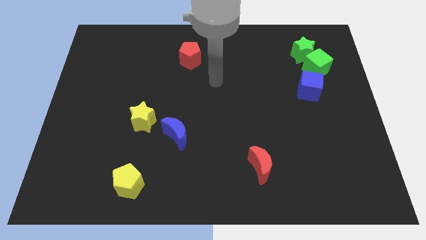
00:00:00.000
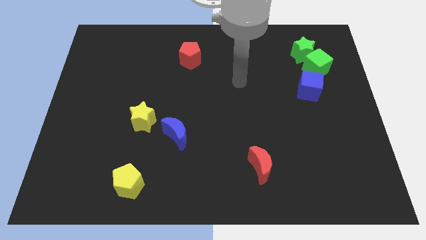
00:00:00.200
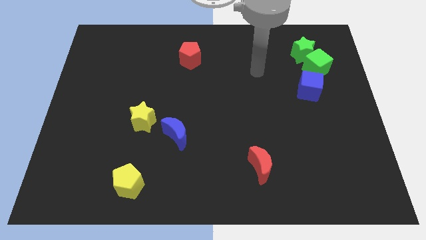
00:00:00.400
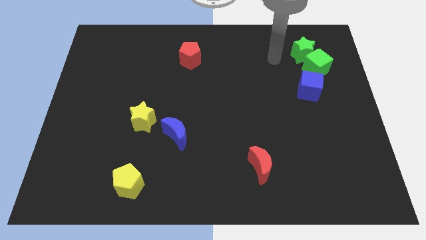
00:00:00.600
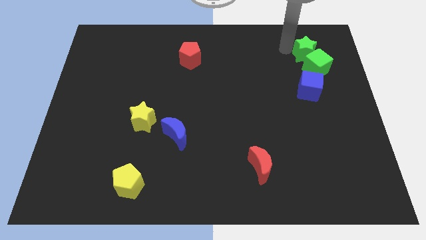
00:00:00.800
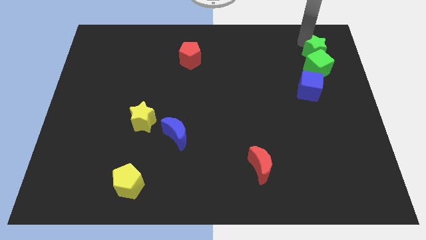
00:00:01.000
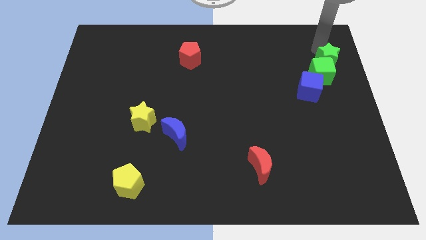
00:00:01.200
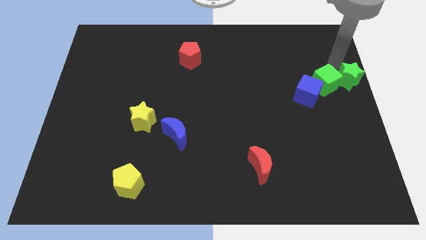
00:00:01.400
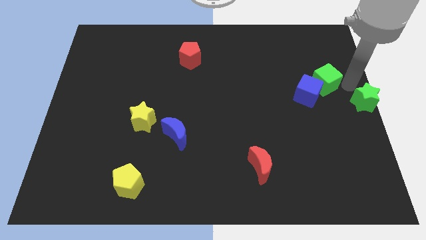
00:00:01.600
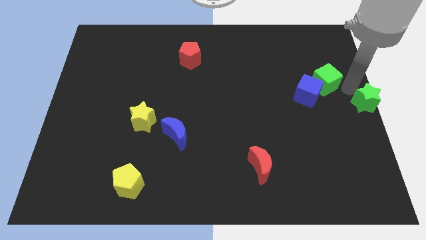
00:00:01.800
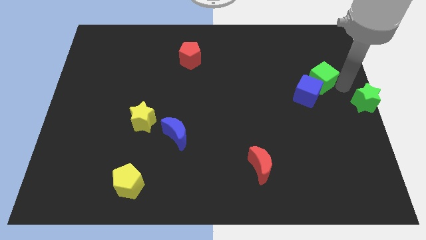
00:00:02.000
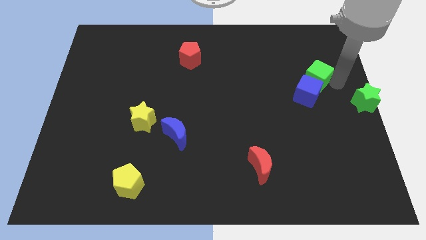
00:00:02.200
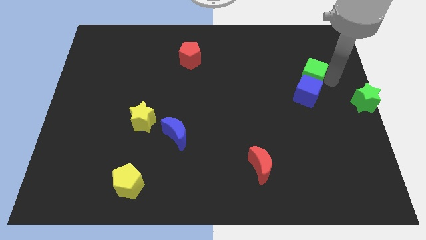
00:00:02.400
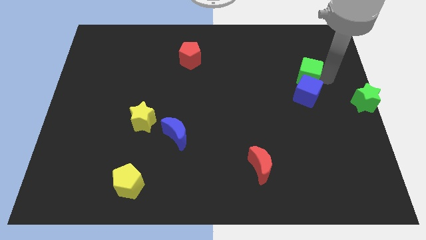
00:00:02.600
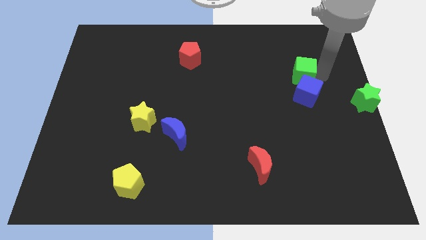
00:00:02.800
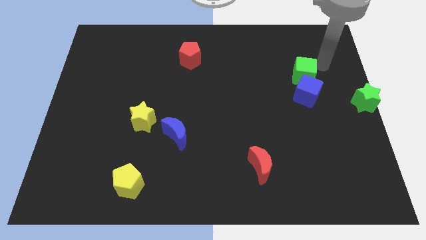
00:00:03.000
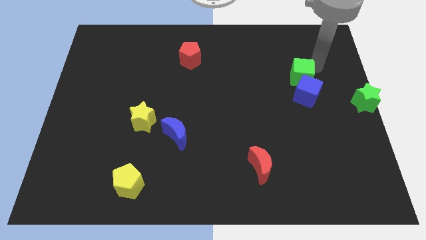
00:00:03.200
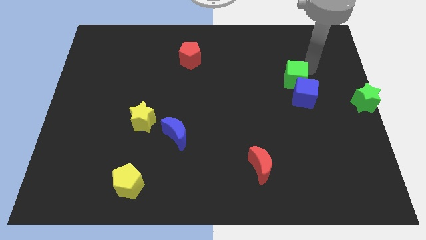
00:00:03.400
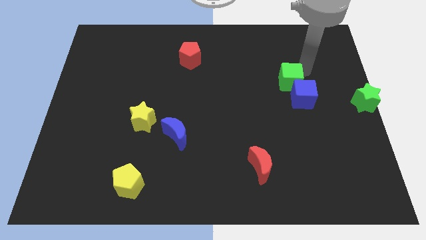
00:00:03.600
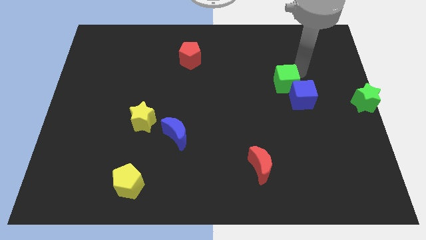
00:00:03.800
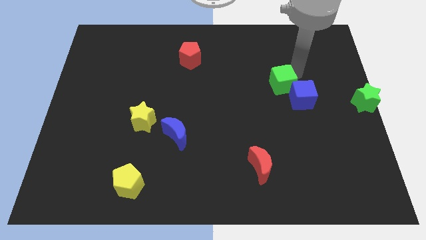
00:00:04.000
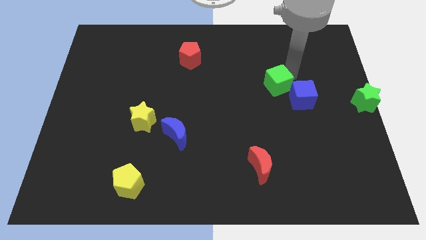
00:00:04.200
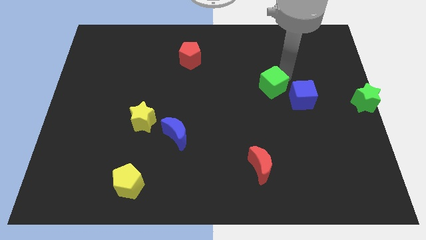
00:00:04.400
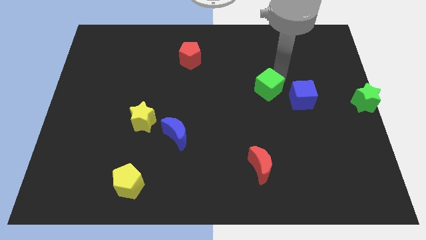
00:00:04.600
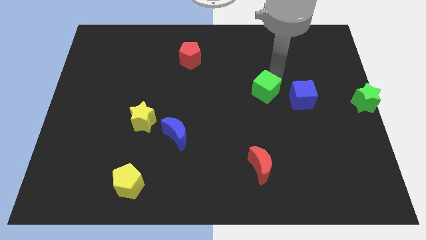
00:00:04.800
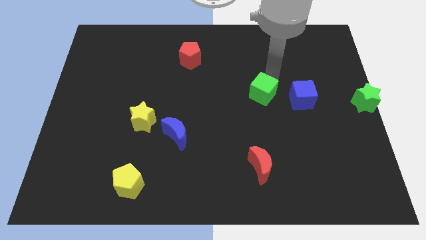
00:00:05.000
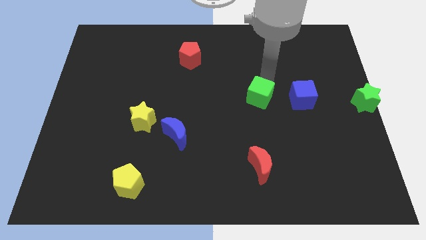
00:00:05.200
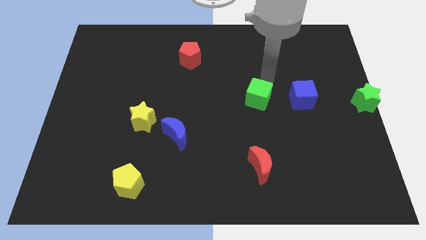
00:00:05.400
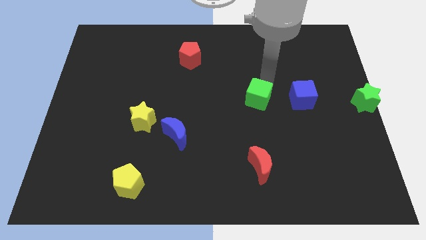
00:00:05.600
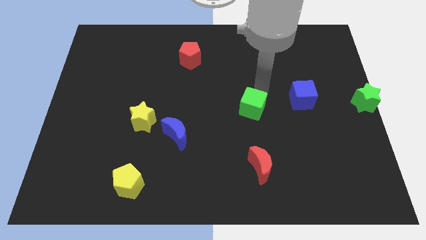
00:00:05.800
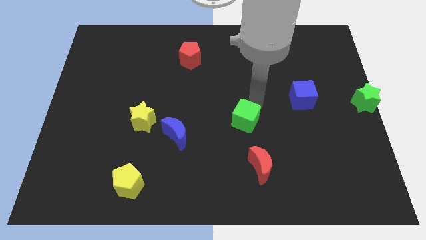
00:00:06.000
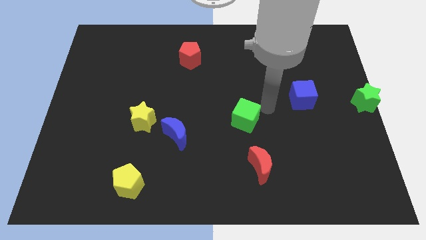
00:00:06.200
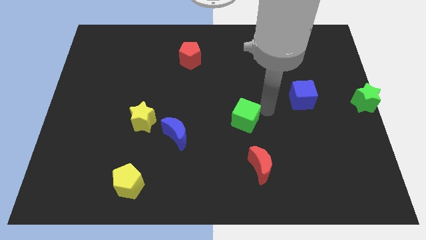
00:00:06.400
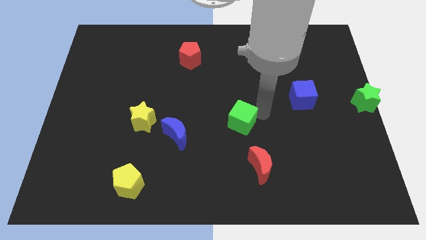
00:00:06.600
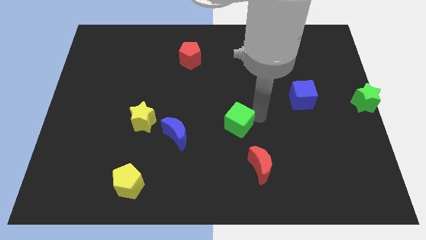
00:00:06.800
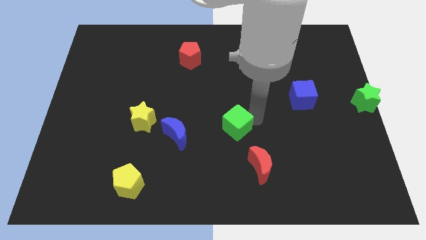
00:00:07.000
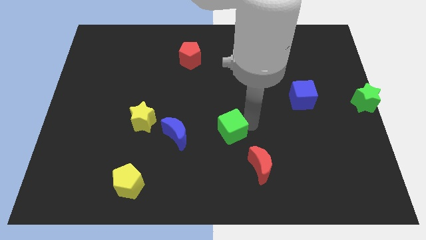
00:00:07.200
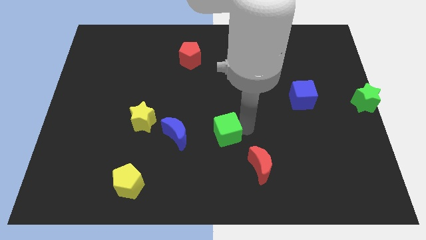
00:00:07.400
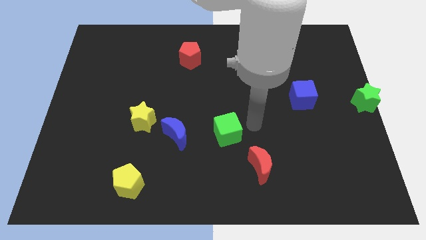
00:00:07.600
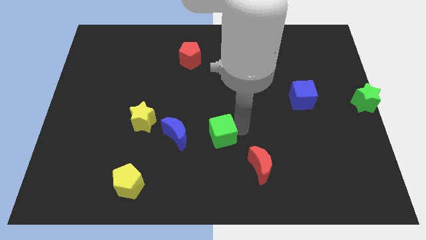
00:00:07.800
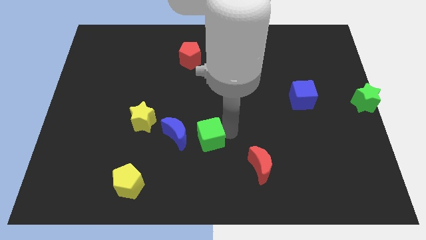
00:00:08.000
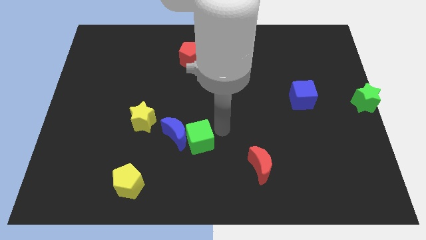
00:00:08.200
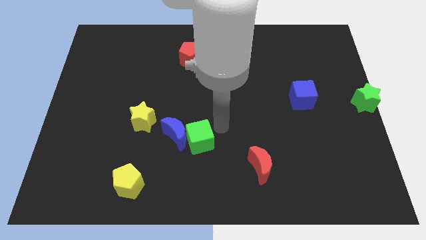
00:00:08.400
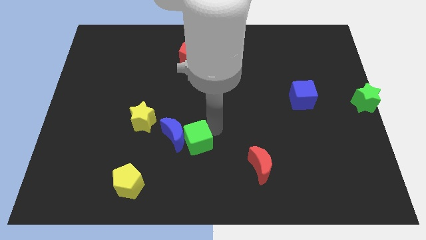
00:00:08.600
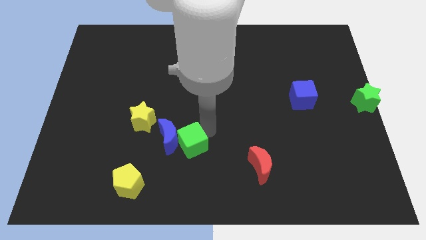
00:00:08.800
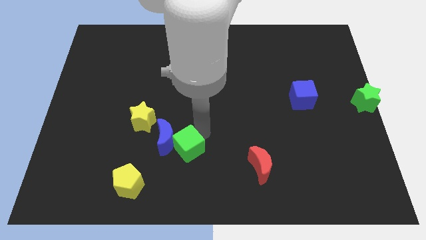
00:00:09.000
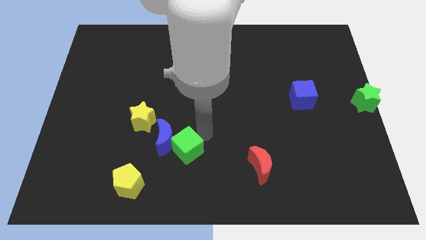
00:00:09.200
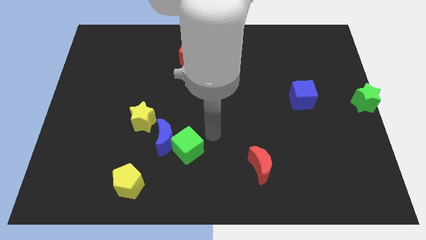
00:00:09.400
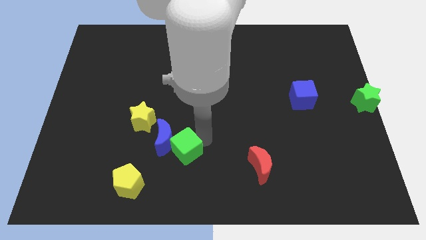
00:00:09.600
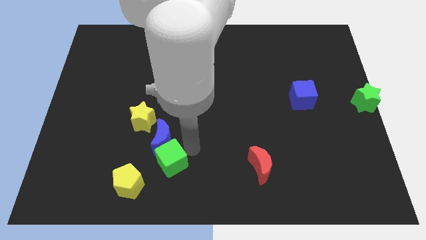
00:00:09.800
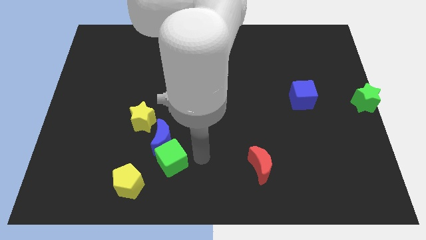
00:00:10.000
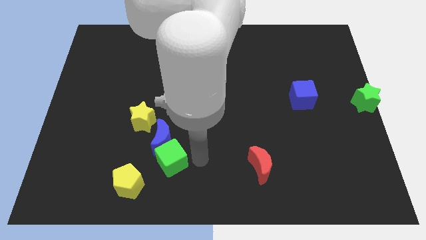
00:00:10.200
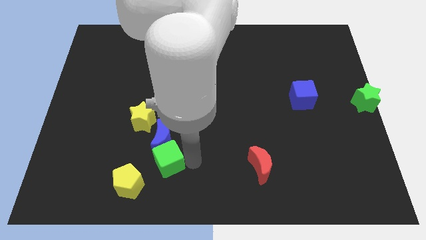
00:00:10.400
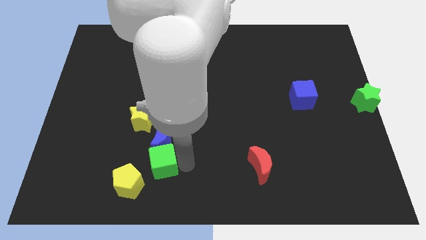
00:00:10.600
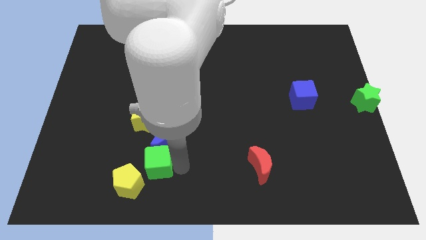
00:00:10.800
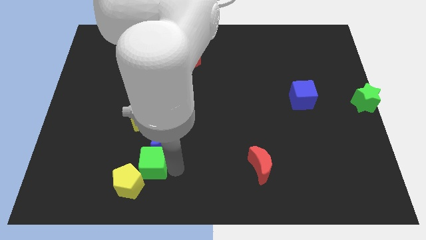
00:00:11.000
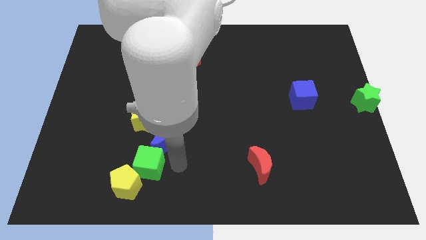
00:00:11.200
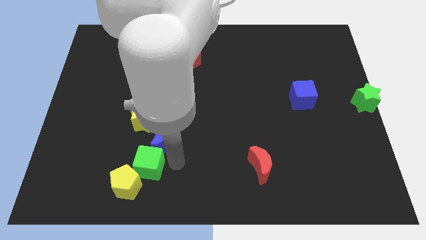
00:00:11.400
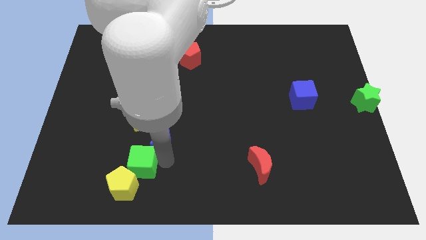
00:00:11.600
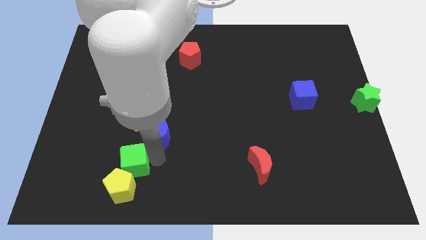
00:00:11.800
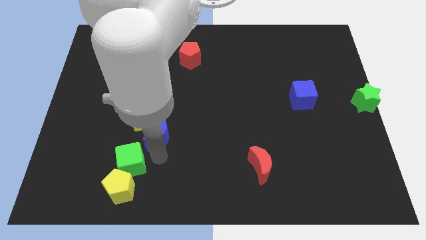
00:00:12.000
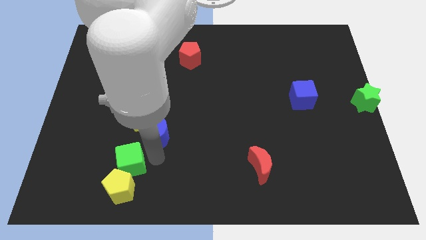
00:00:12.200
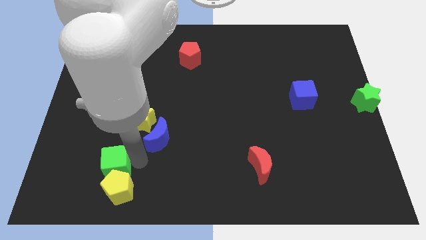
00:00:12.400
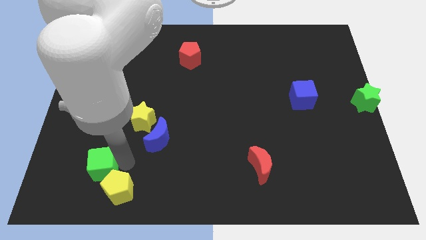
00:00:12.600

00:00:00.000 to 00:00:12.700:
slide the green cube to the left of the yellow pentagon

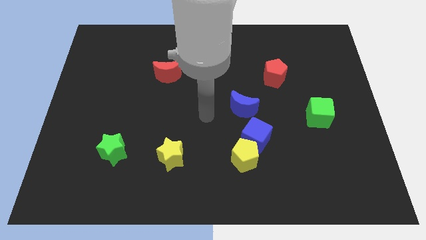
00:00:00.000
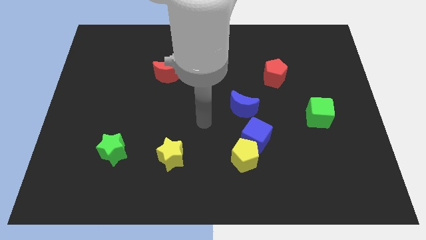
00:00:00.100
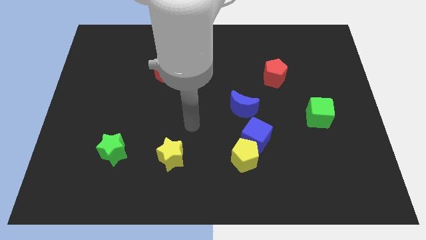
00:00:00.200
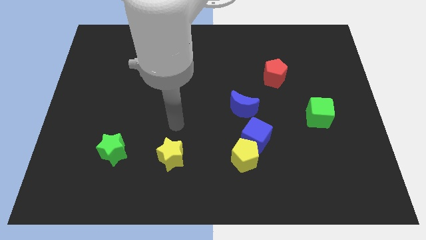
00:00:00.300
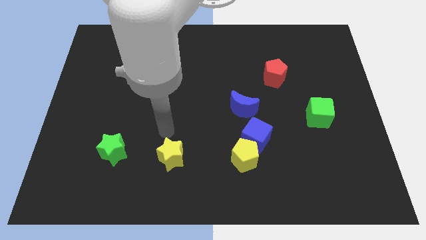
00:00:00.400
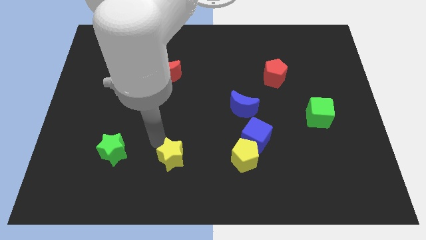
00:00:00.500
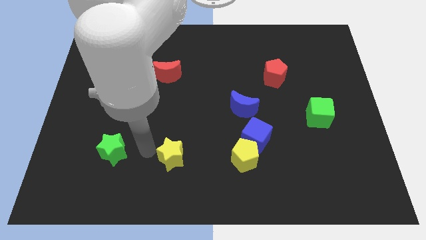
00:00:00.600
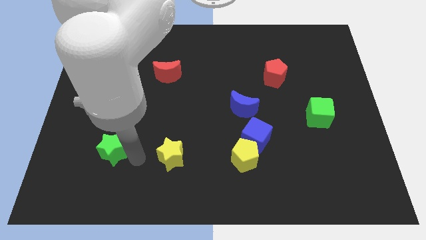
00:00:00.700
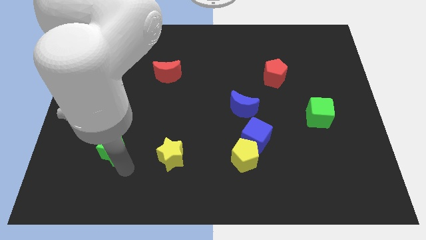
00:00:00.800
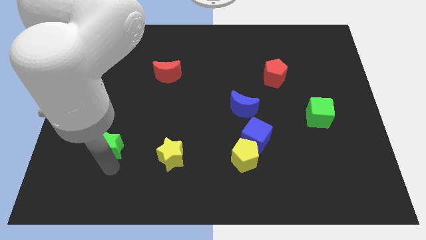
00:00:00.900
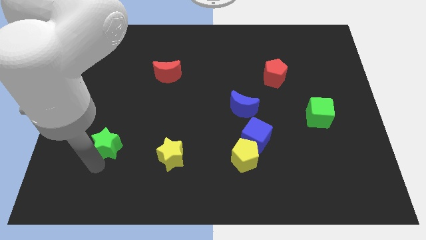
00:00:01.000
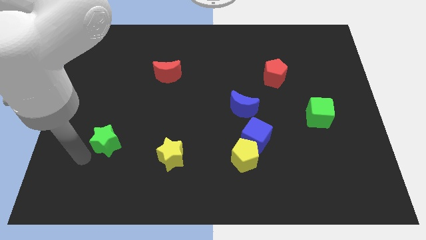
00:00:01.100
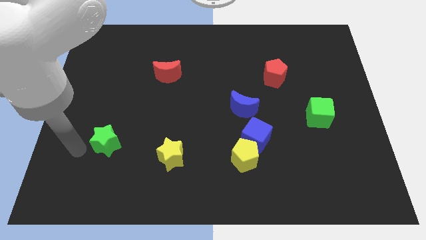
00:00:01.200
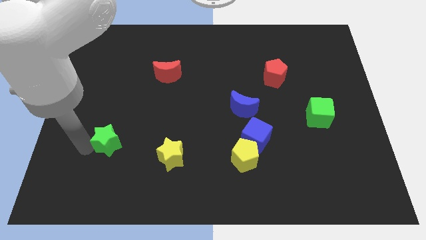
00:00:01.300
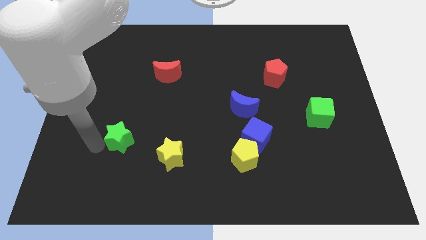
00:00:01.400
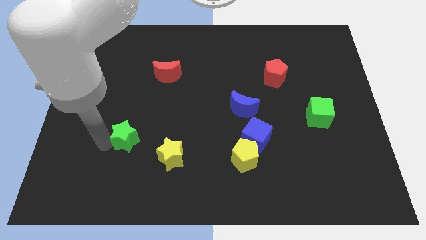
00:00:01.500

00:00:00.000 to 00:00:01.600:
push the green star diagonally up and to the left of the yellow star

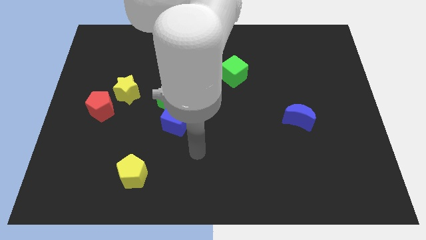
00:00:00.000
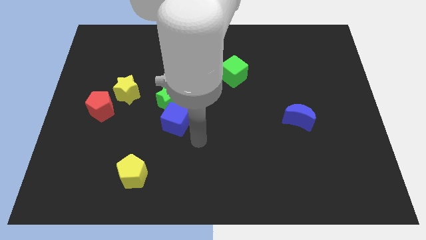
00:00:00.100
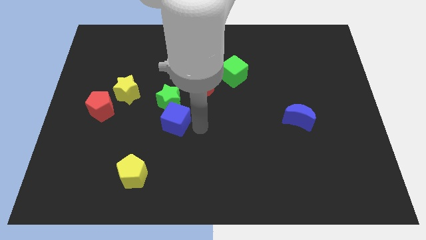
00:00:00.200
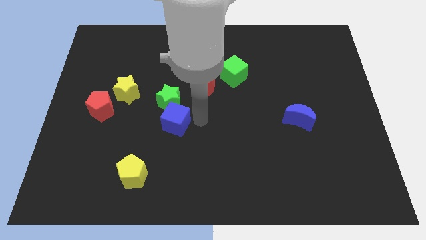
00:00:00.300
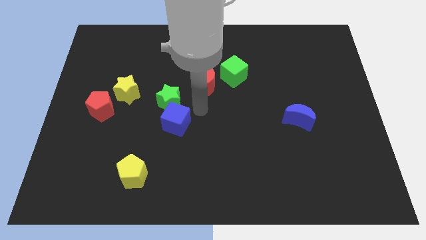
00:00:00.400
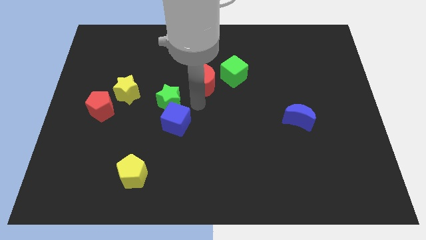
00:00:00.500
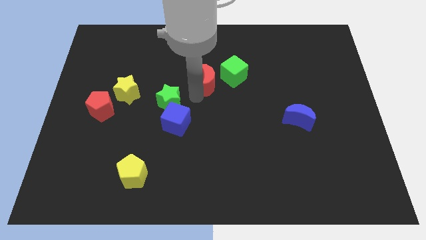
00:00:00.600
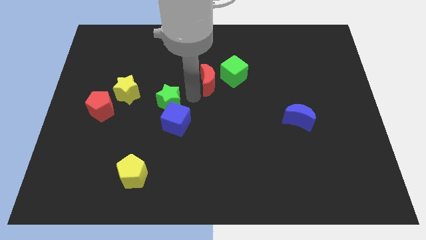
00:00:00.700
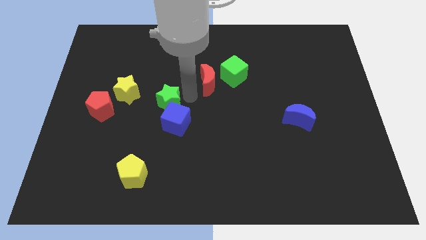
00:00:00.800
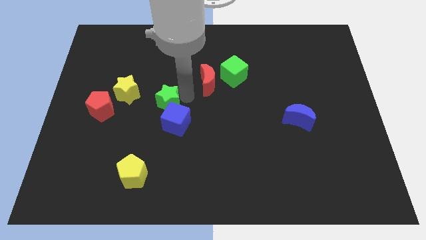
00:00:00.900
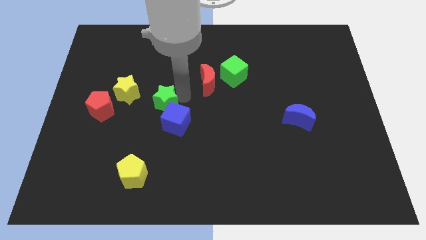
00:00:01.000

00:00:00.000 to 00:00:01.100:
move the green star to the bottom right side of the yellow star
